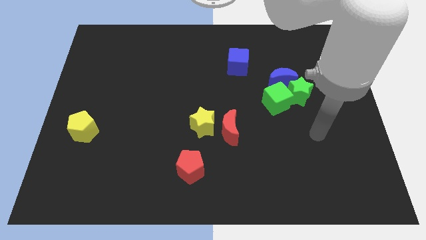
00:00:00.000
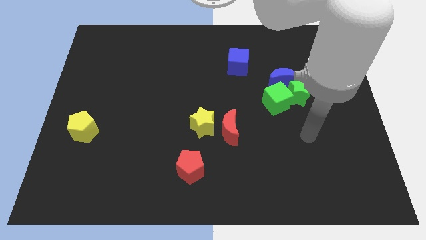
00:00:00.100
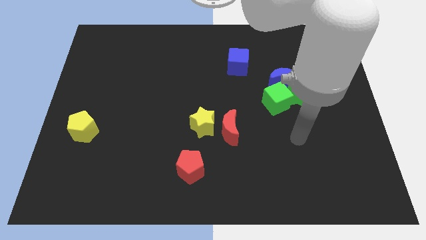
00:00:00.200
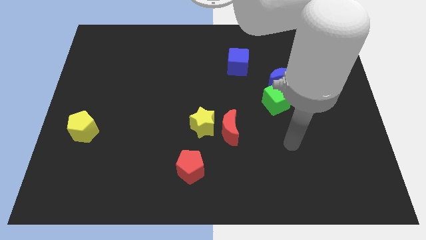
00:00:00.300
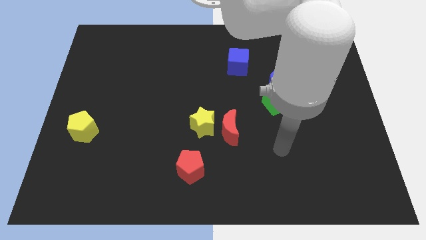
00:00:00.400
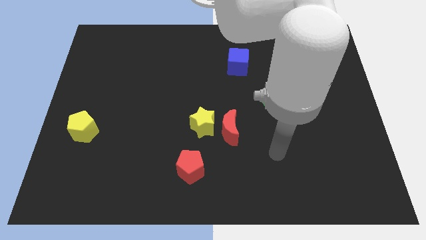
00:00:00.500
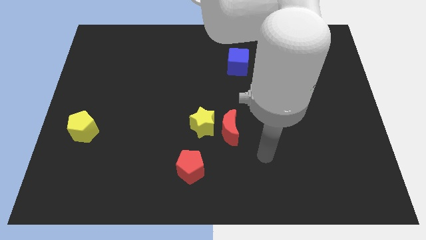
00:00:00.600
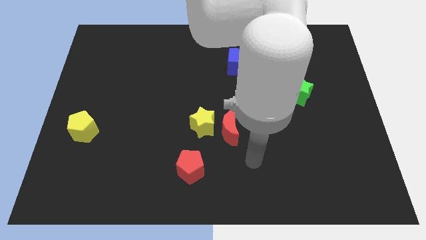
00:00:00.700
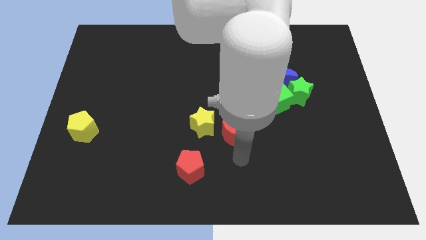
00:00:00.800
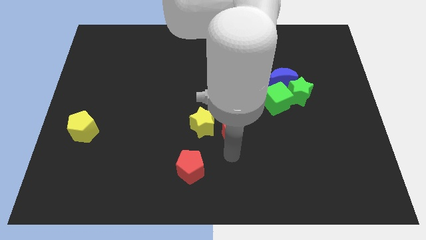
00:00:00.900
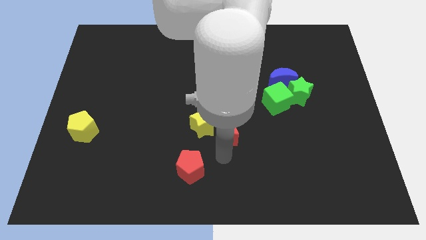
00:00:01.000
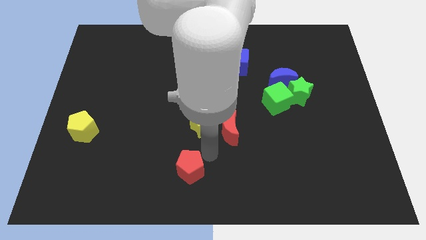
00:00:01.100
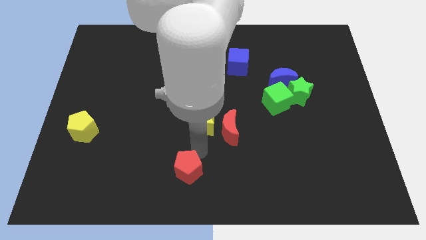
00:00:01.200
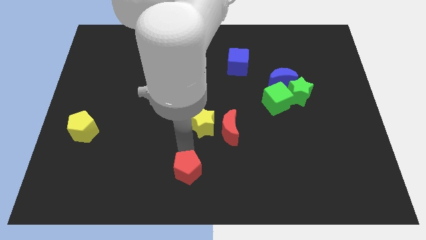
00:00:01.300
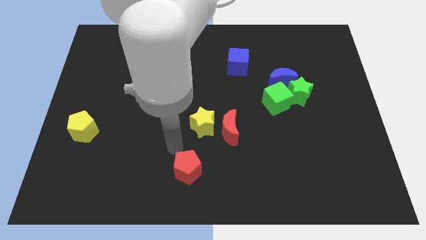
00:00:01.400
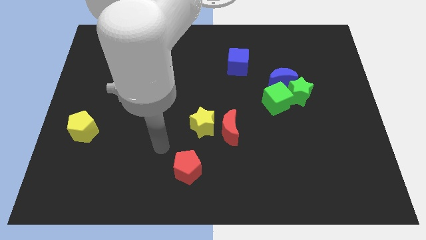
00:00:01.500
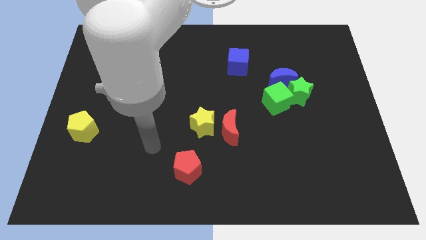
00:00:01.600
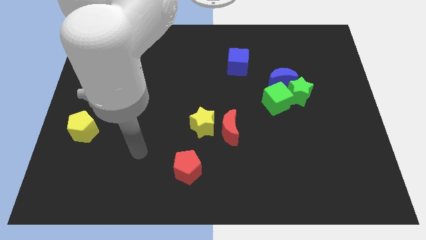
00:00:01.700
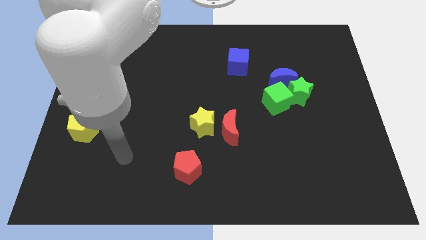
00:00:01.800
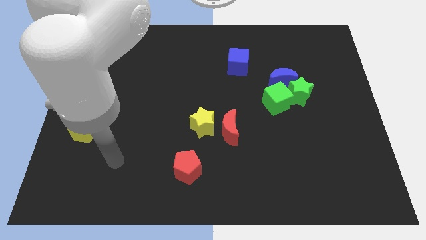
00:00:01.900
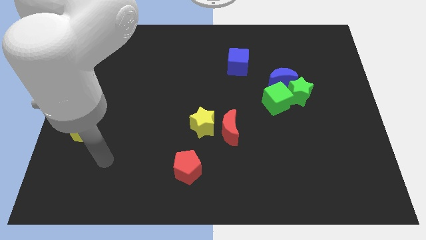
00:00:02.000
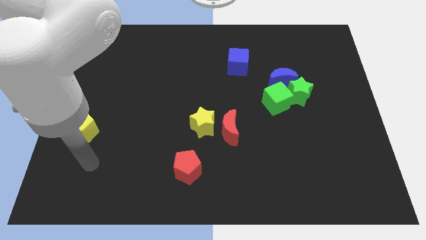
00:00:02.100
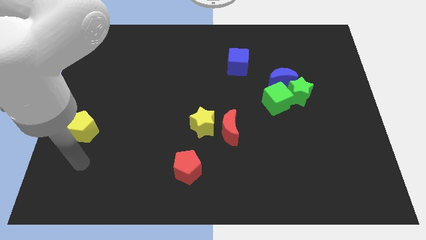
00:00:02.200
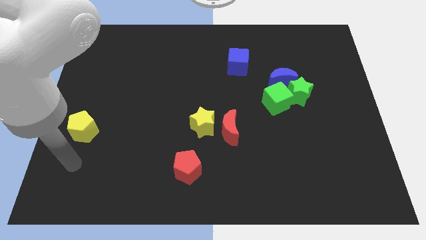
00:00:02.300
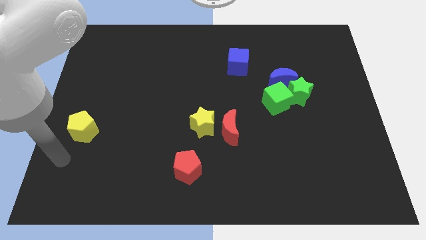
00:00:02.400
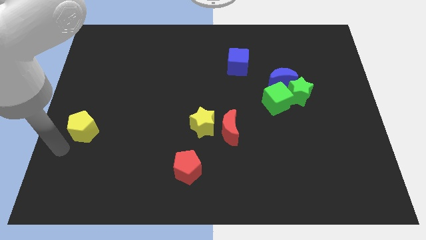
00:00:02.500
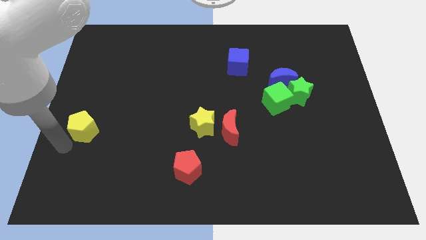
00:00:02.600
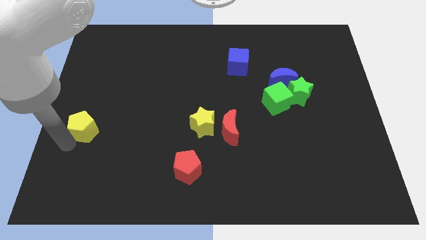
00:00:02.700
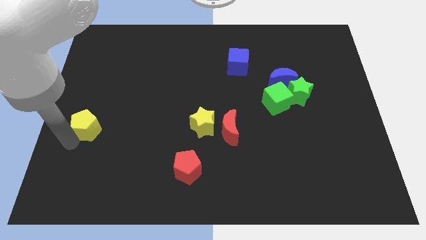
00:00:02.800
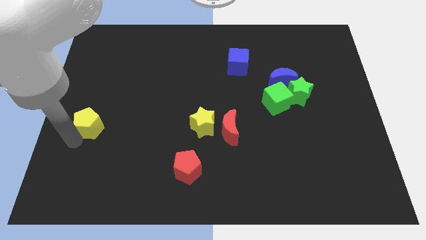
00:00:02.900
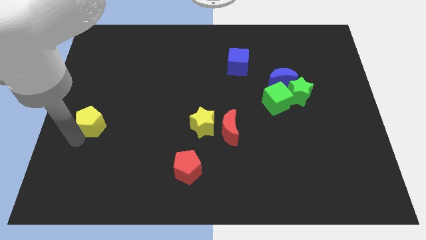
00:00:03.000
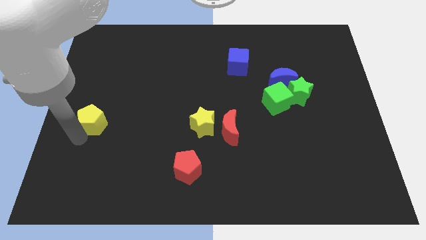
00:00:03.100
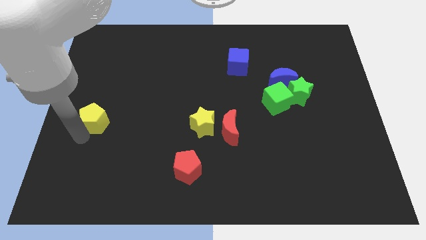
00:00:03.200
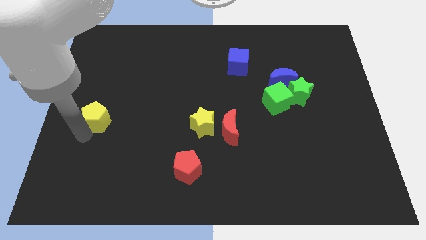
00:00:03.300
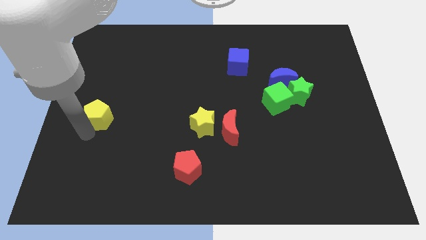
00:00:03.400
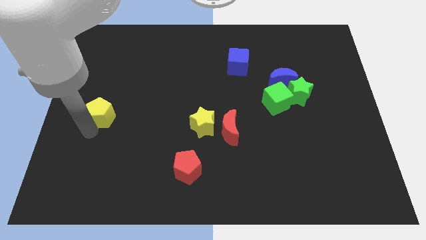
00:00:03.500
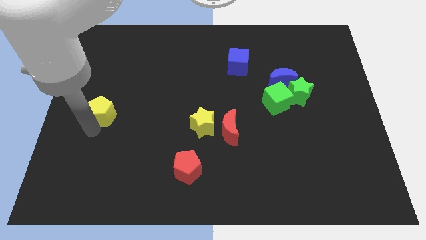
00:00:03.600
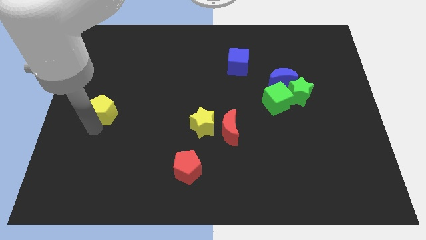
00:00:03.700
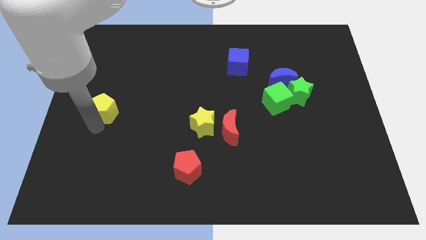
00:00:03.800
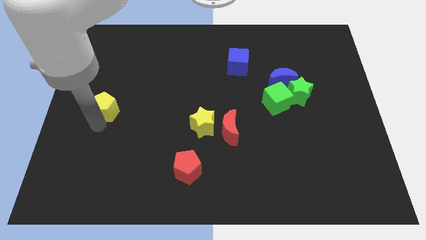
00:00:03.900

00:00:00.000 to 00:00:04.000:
push the yellow pentagon diagonally upwards and right a little bit

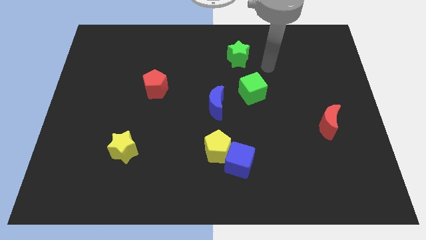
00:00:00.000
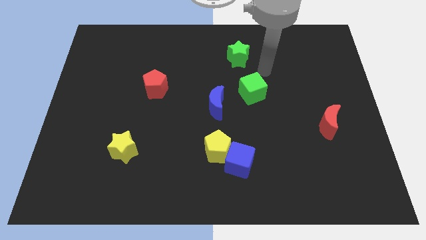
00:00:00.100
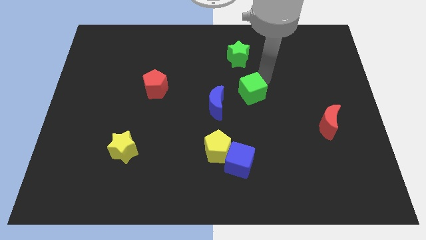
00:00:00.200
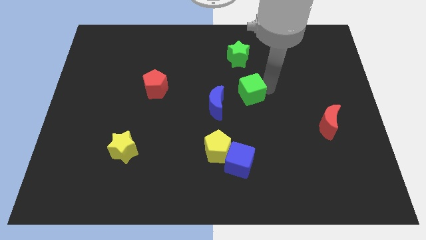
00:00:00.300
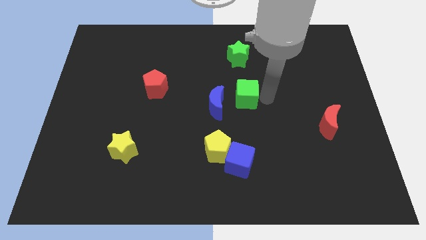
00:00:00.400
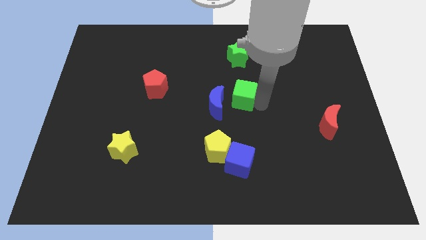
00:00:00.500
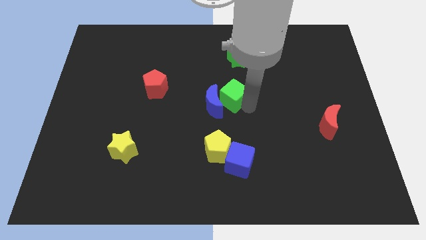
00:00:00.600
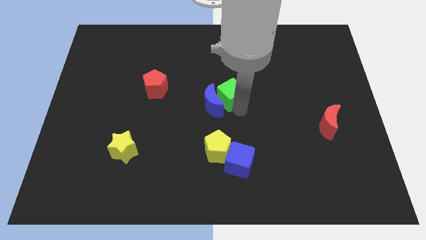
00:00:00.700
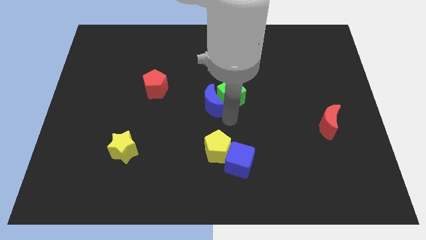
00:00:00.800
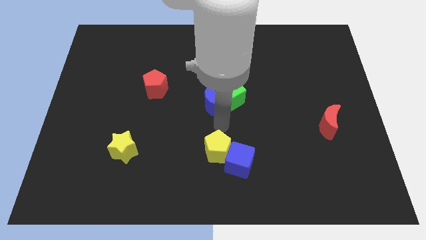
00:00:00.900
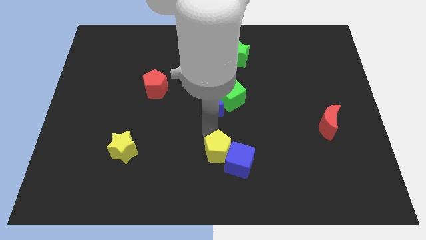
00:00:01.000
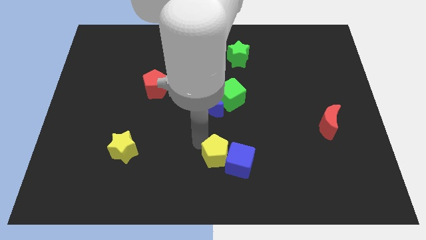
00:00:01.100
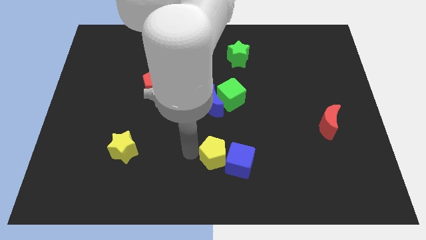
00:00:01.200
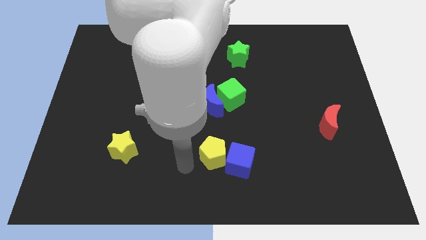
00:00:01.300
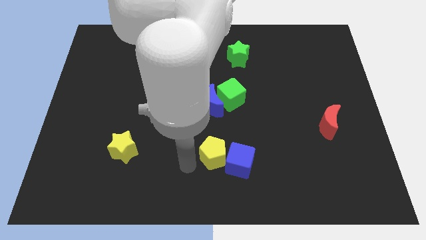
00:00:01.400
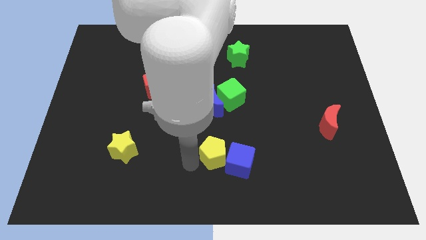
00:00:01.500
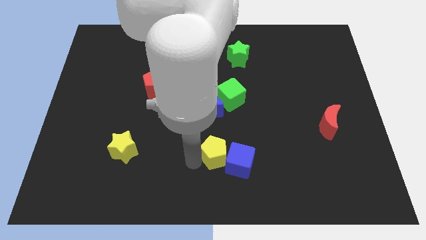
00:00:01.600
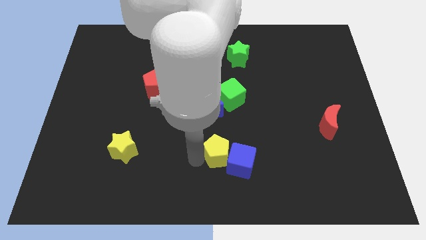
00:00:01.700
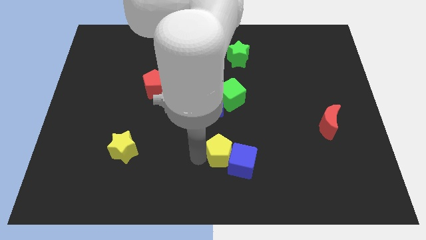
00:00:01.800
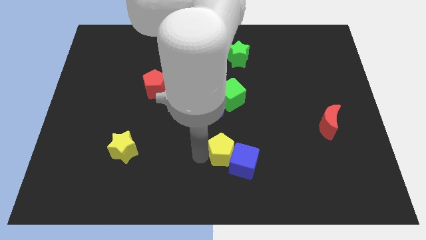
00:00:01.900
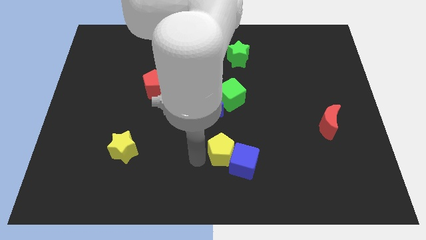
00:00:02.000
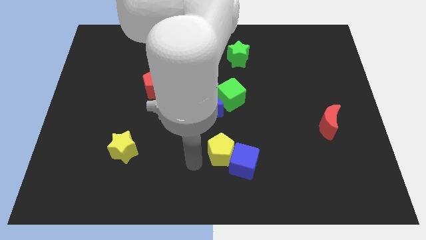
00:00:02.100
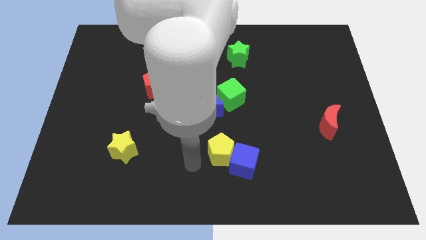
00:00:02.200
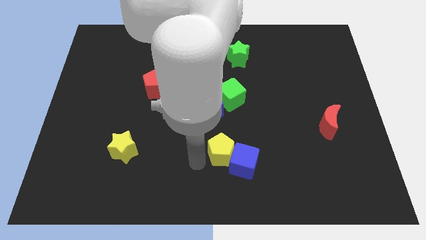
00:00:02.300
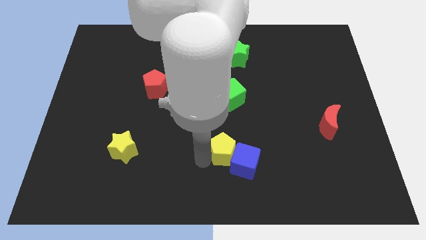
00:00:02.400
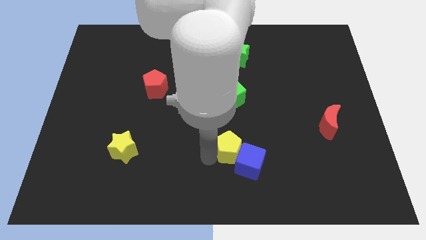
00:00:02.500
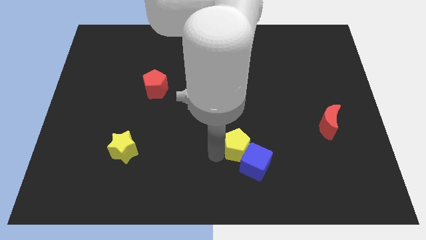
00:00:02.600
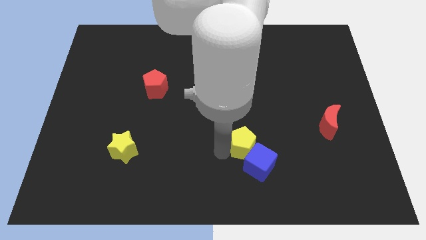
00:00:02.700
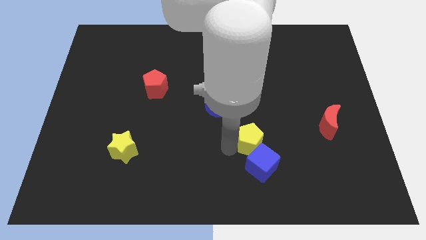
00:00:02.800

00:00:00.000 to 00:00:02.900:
push the yellow pentagon a little bit to the right

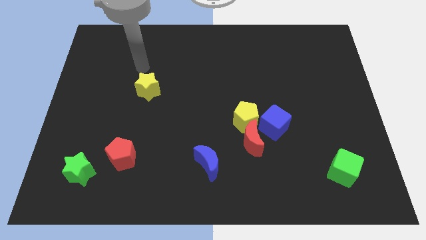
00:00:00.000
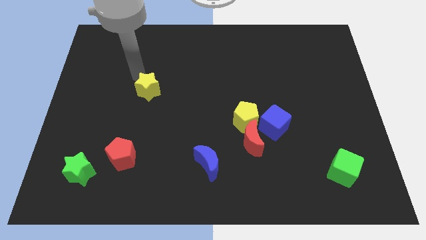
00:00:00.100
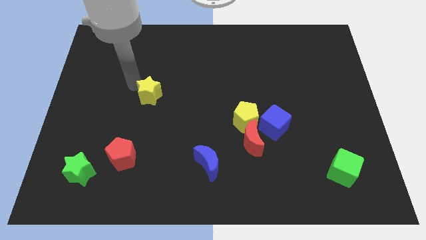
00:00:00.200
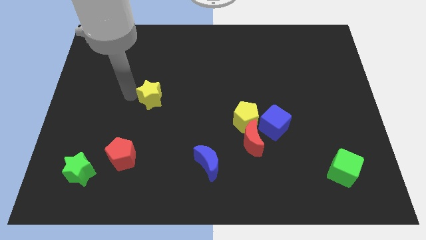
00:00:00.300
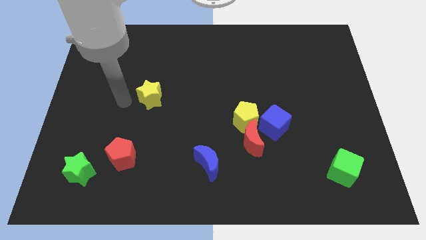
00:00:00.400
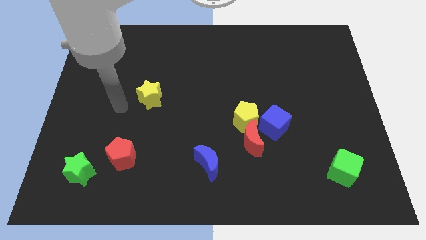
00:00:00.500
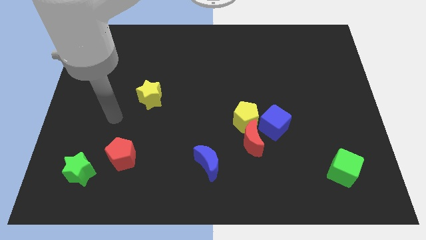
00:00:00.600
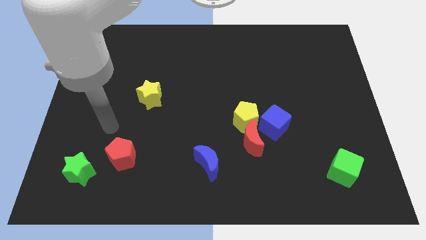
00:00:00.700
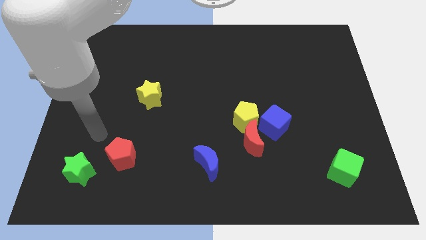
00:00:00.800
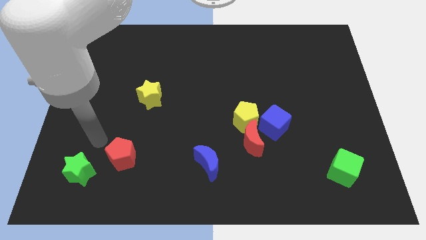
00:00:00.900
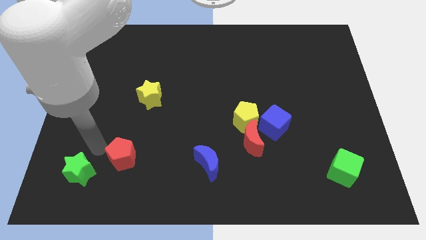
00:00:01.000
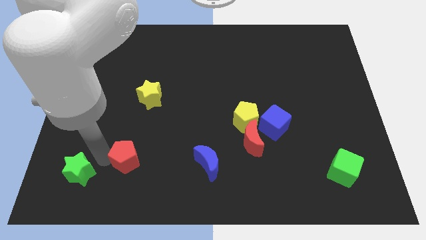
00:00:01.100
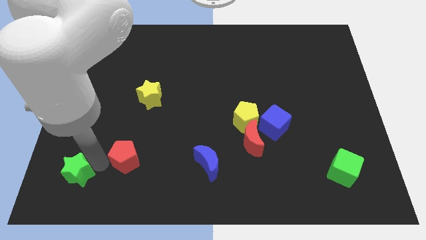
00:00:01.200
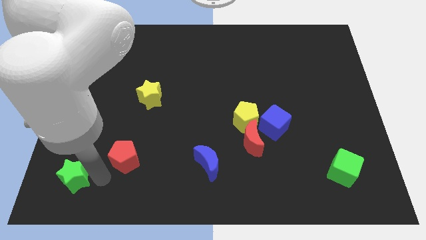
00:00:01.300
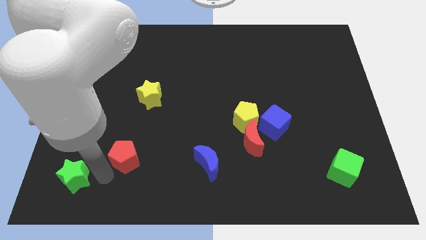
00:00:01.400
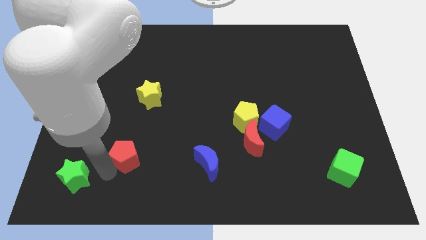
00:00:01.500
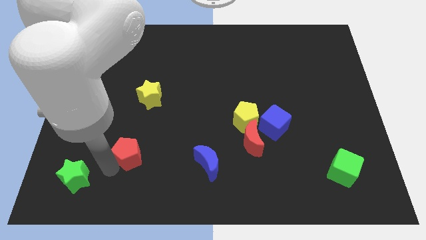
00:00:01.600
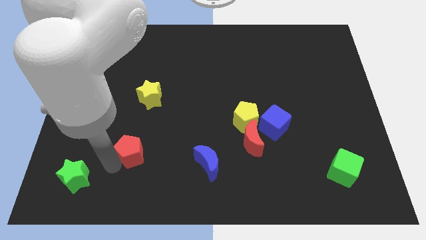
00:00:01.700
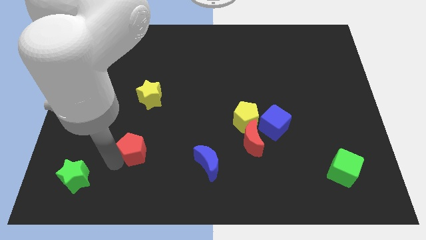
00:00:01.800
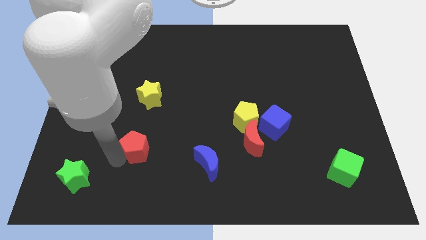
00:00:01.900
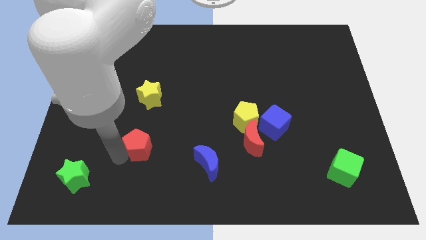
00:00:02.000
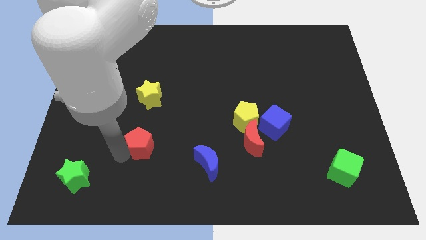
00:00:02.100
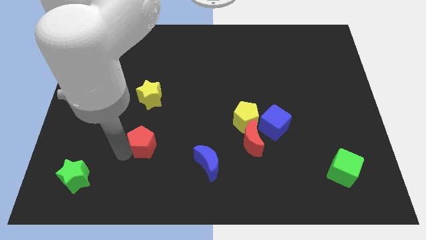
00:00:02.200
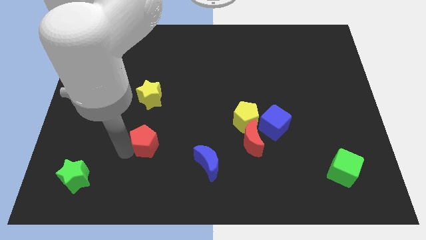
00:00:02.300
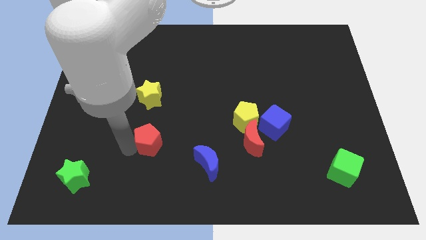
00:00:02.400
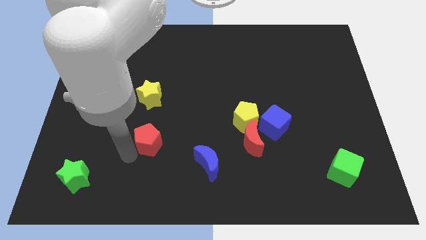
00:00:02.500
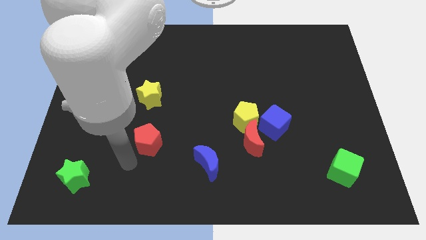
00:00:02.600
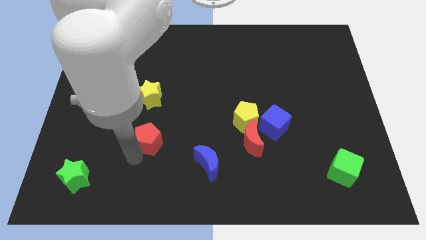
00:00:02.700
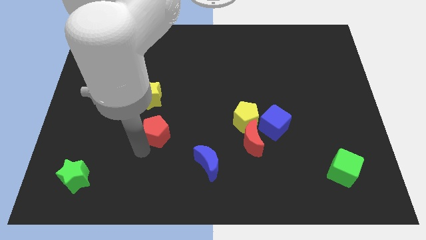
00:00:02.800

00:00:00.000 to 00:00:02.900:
move the red pentagon upwards and to the right diagonally somewhat
